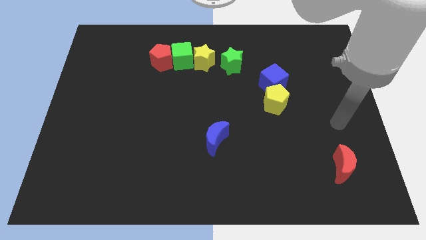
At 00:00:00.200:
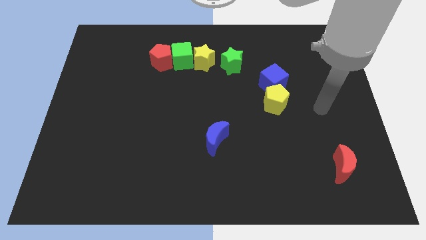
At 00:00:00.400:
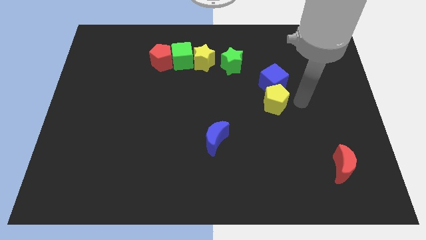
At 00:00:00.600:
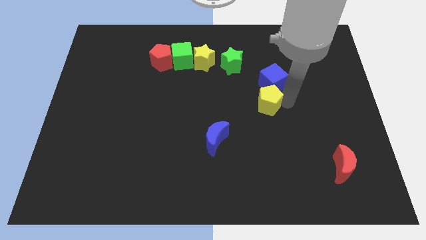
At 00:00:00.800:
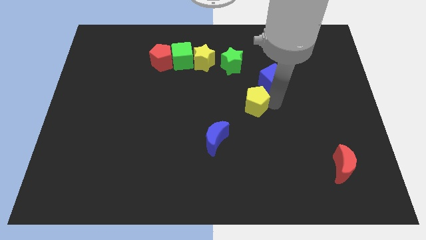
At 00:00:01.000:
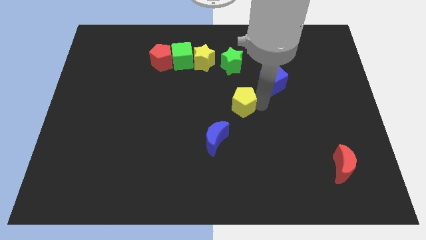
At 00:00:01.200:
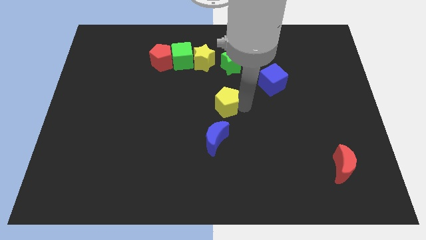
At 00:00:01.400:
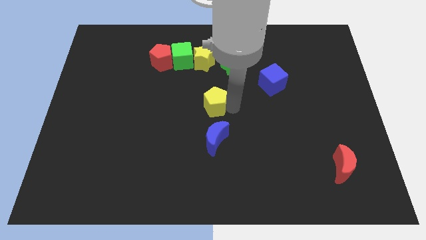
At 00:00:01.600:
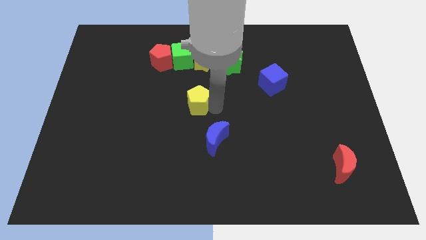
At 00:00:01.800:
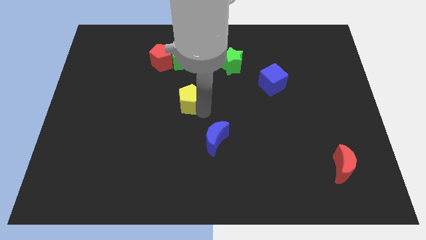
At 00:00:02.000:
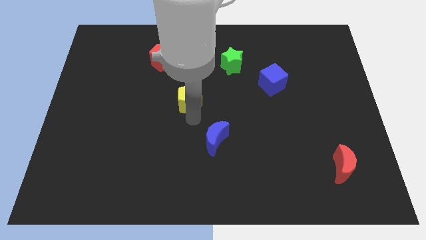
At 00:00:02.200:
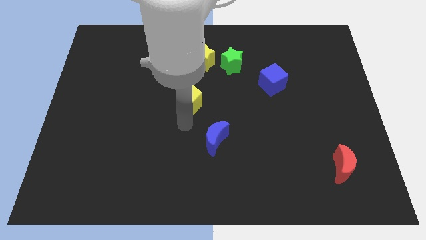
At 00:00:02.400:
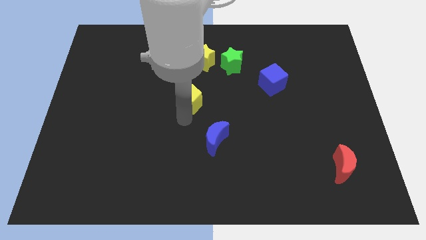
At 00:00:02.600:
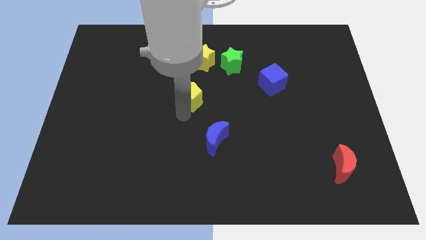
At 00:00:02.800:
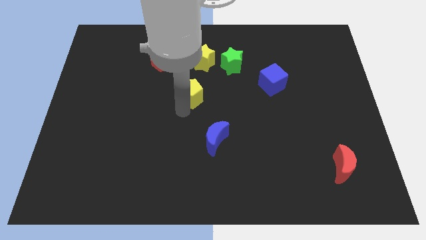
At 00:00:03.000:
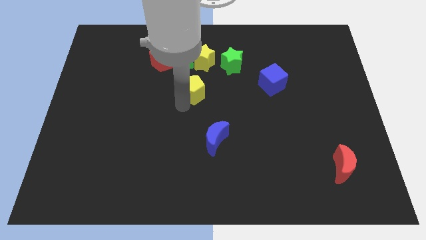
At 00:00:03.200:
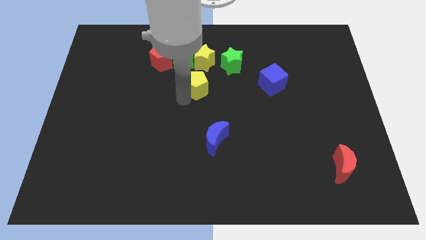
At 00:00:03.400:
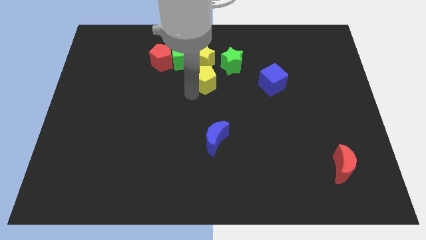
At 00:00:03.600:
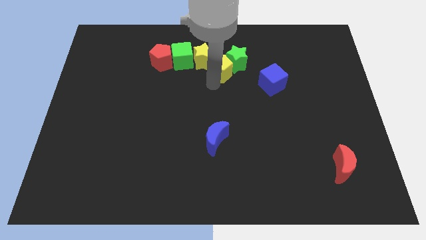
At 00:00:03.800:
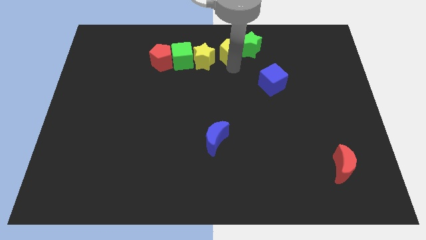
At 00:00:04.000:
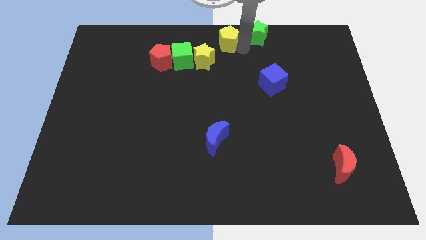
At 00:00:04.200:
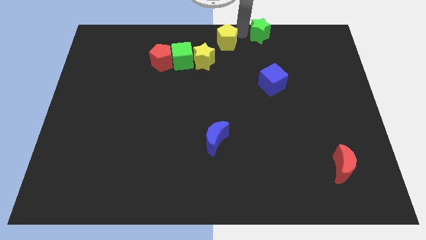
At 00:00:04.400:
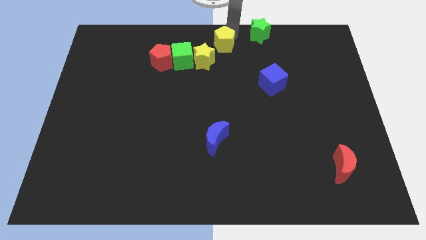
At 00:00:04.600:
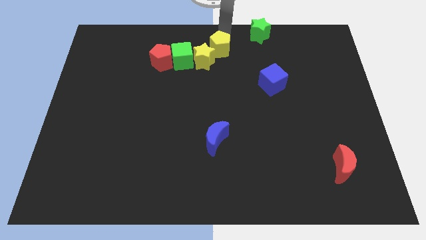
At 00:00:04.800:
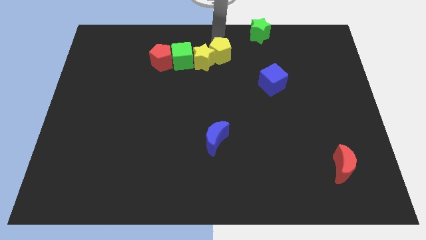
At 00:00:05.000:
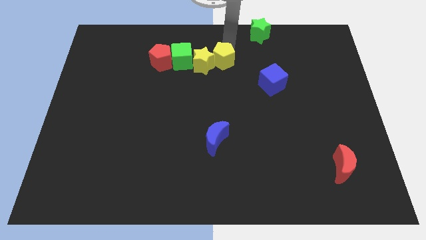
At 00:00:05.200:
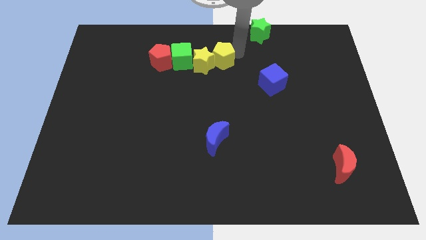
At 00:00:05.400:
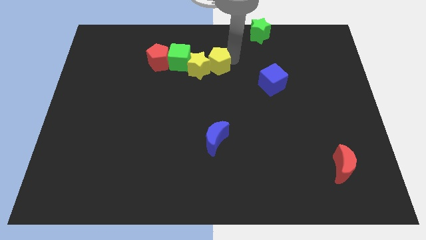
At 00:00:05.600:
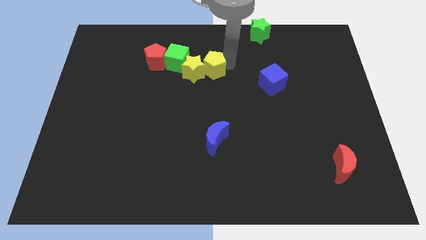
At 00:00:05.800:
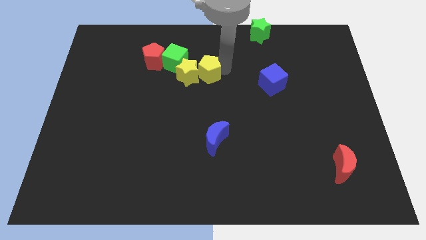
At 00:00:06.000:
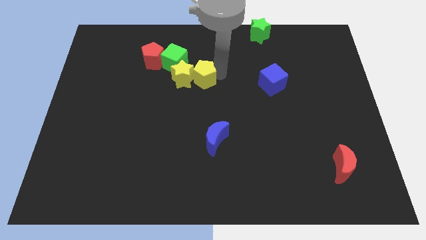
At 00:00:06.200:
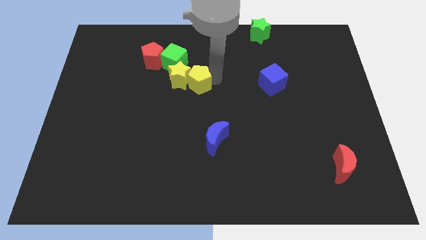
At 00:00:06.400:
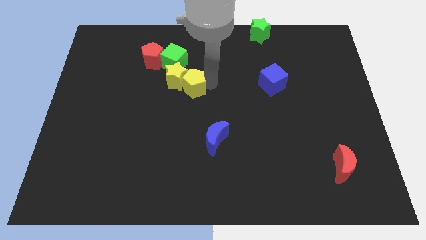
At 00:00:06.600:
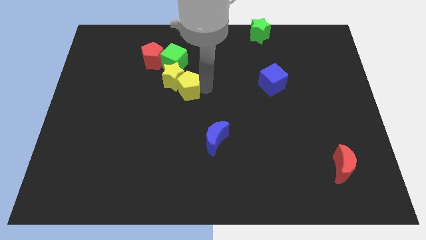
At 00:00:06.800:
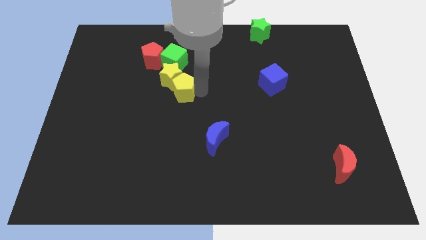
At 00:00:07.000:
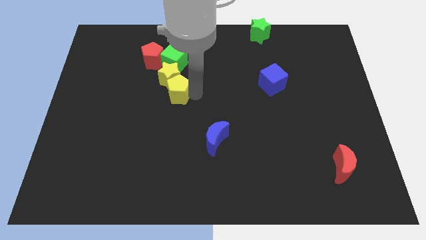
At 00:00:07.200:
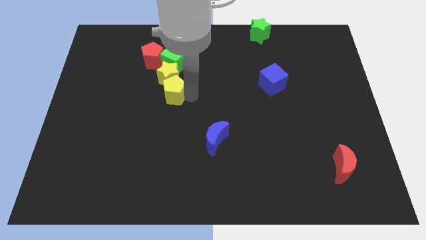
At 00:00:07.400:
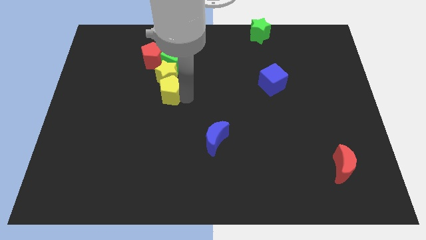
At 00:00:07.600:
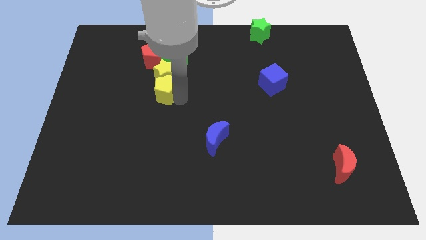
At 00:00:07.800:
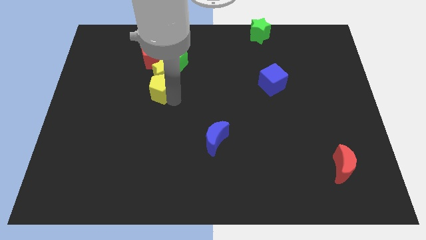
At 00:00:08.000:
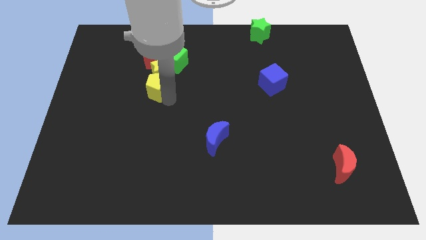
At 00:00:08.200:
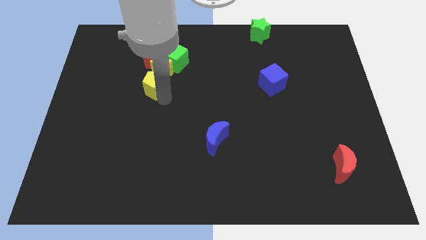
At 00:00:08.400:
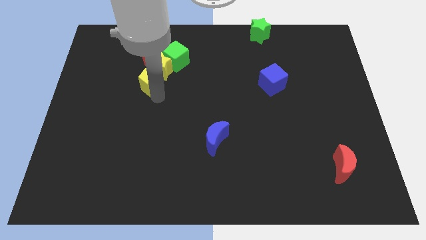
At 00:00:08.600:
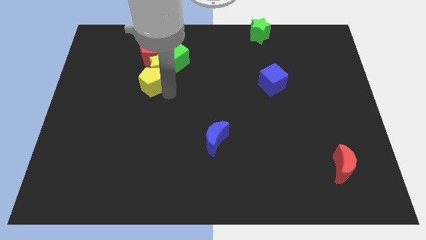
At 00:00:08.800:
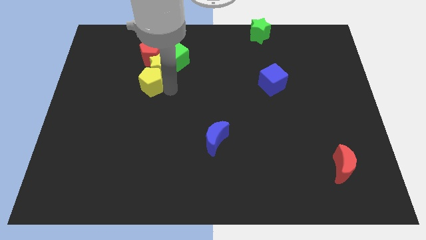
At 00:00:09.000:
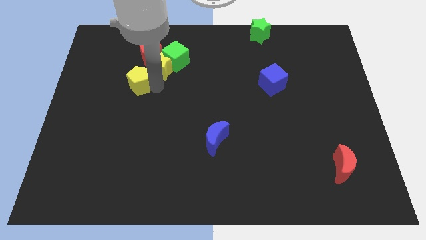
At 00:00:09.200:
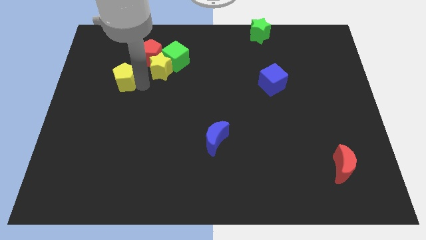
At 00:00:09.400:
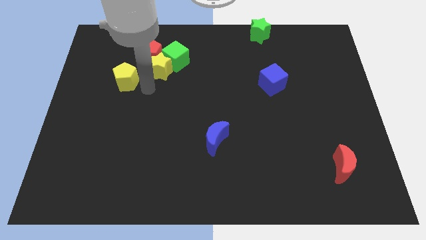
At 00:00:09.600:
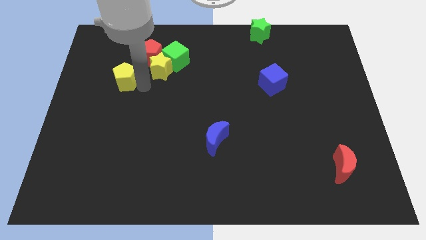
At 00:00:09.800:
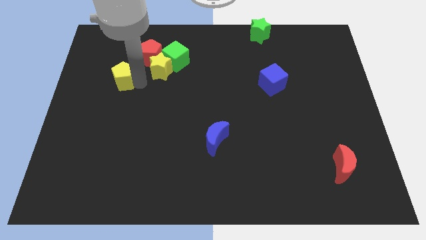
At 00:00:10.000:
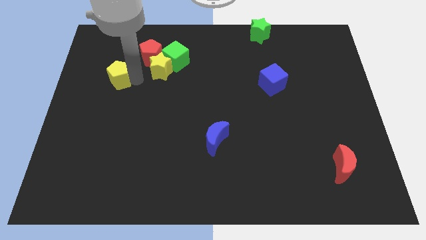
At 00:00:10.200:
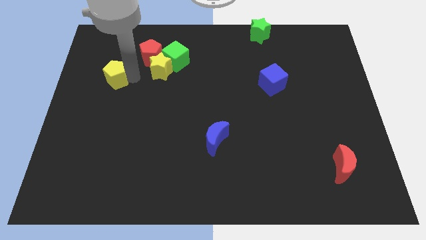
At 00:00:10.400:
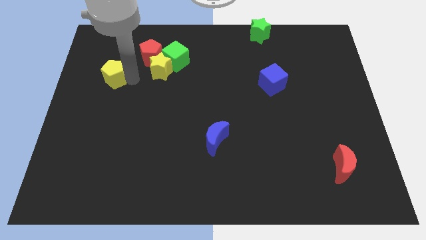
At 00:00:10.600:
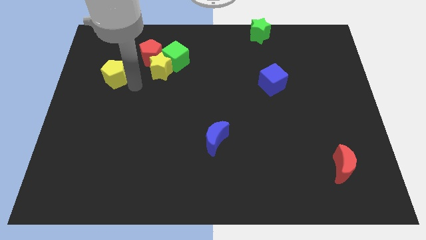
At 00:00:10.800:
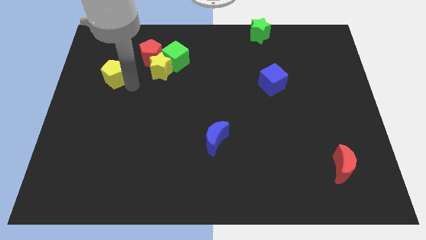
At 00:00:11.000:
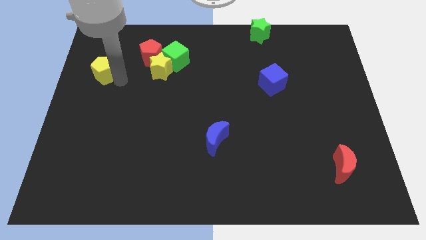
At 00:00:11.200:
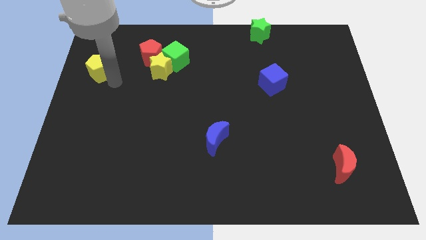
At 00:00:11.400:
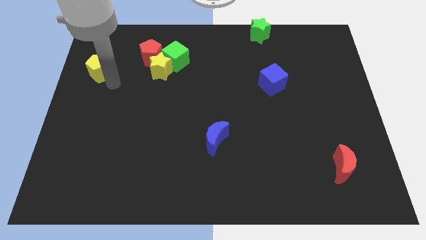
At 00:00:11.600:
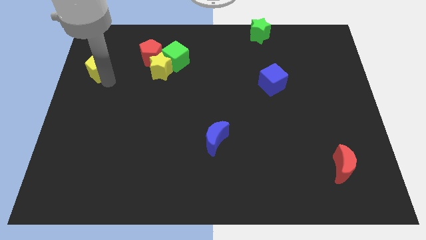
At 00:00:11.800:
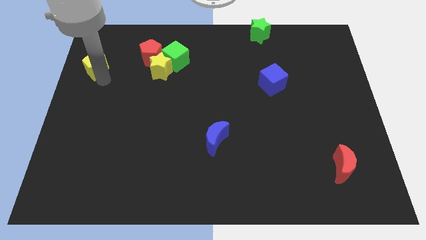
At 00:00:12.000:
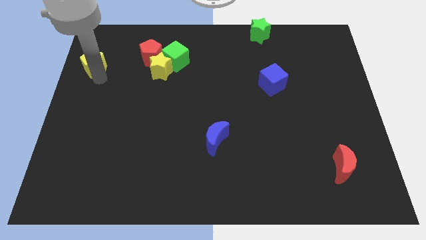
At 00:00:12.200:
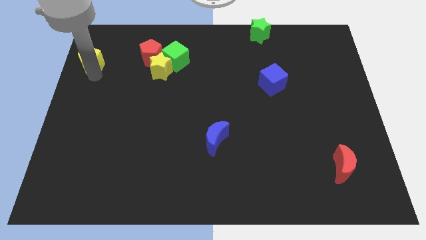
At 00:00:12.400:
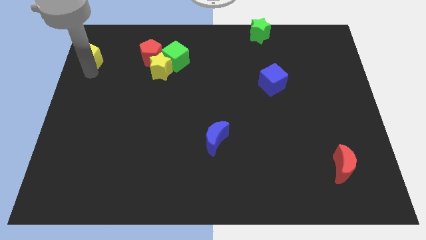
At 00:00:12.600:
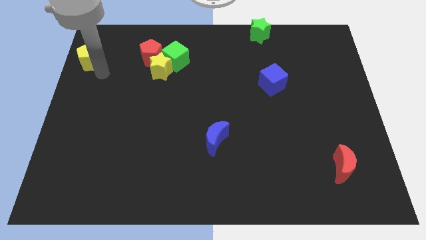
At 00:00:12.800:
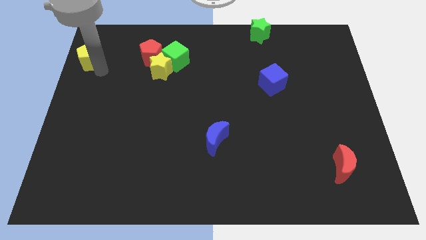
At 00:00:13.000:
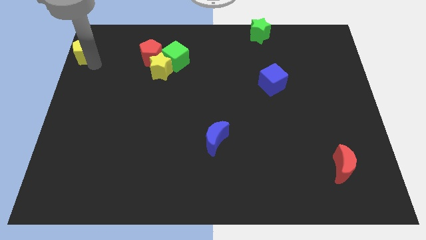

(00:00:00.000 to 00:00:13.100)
push the yellow pentagon to the top left of the board
